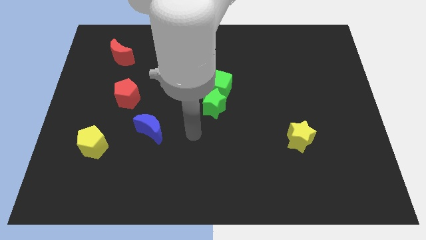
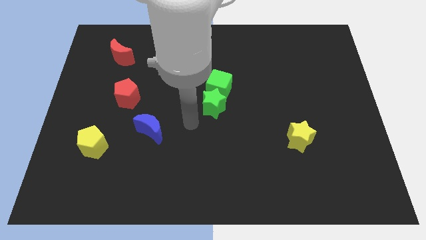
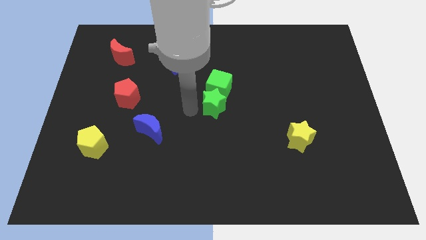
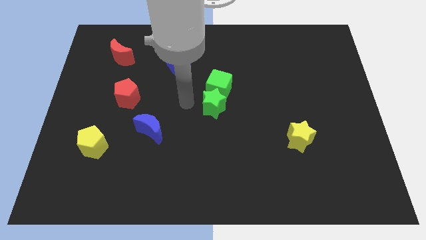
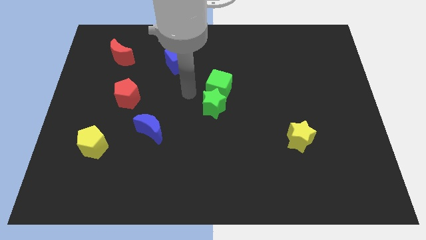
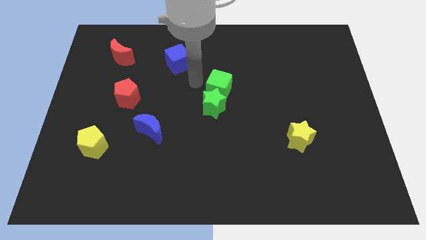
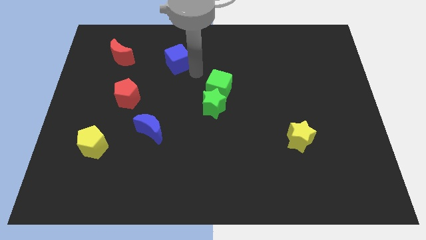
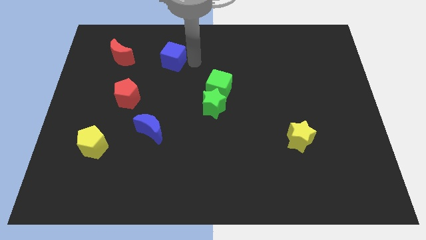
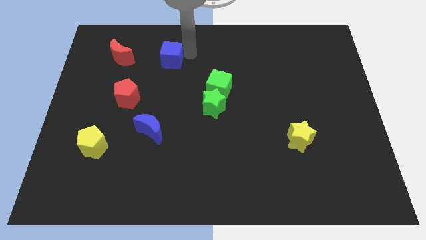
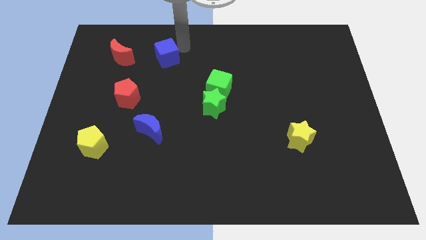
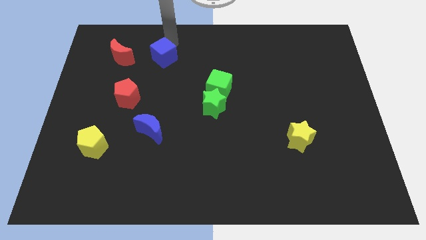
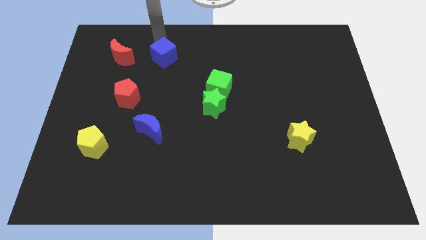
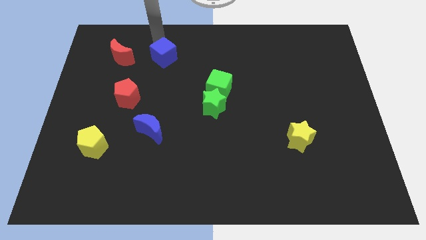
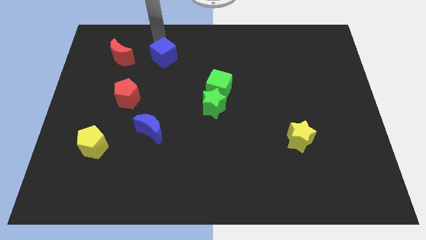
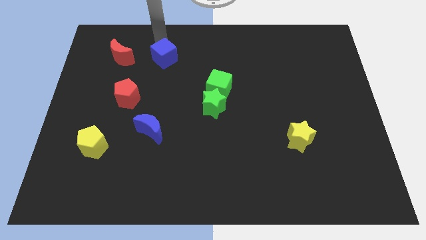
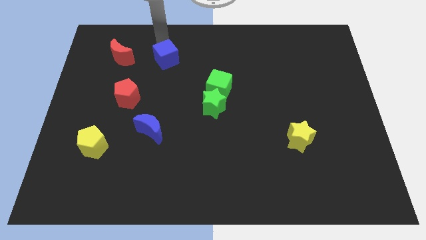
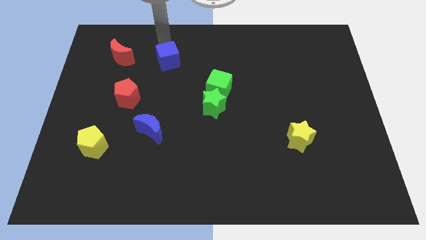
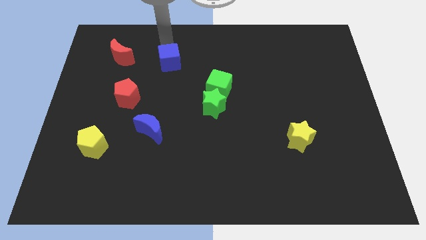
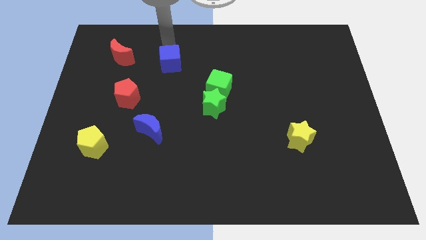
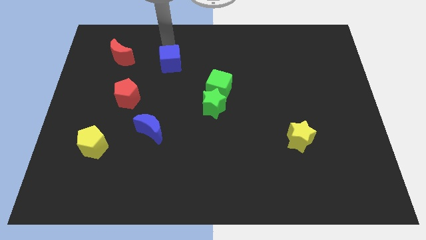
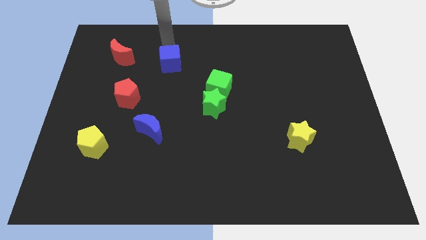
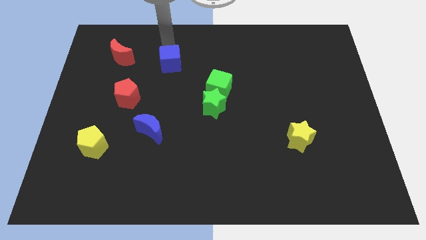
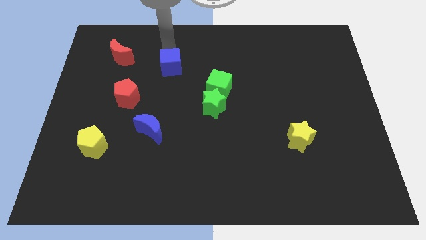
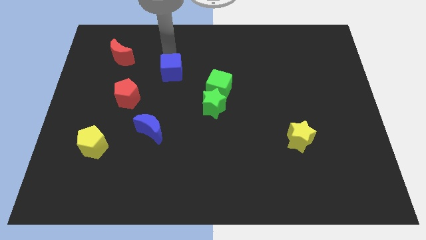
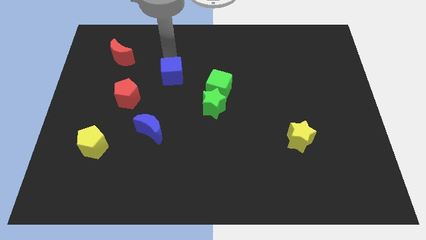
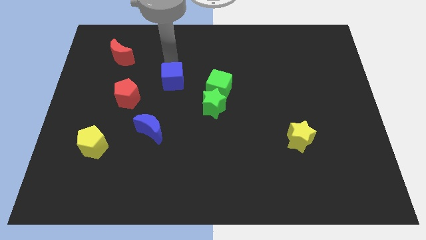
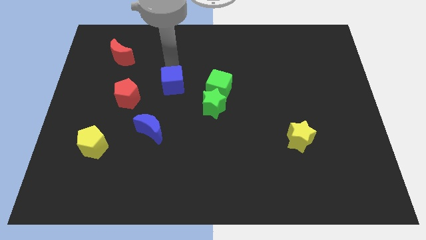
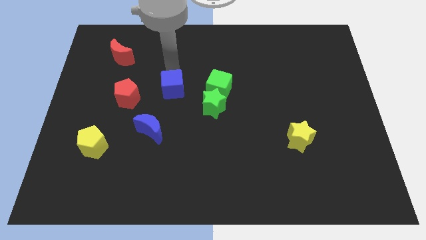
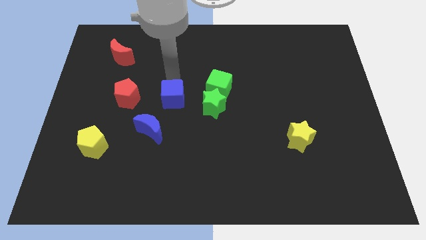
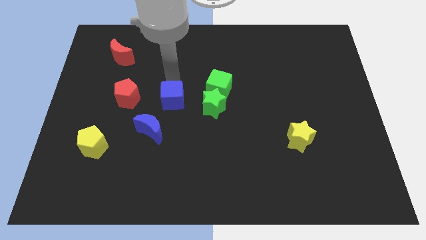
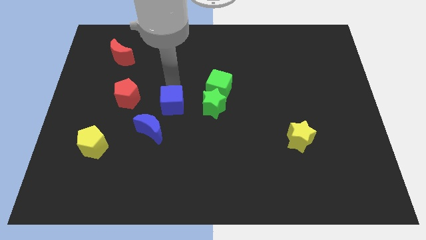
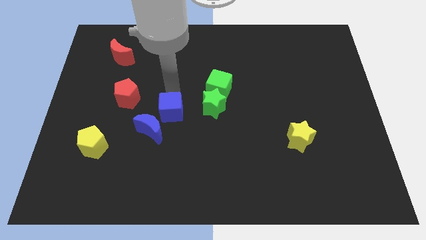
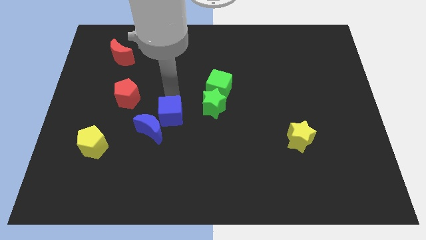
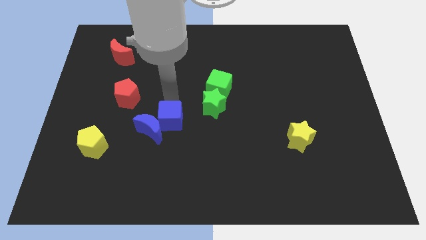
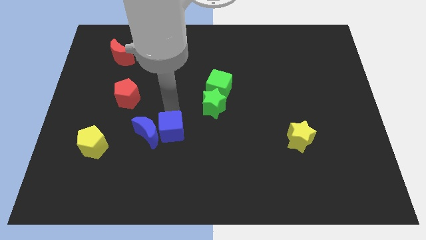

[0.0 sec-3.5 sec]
slide the blue cube down

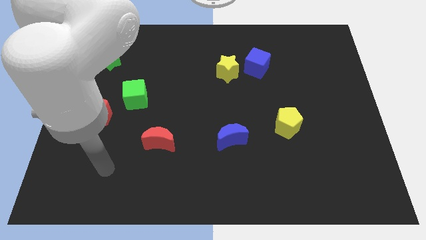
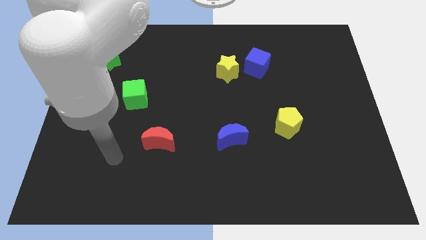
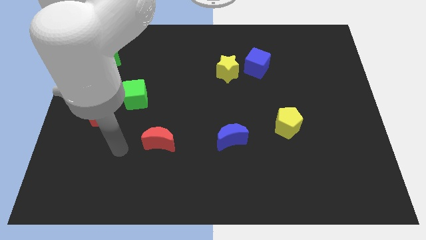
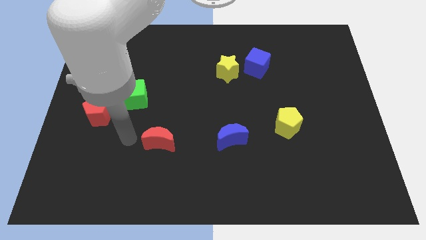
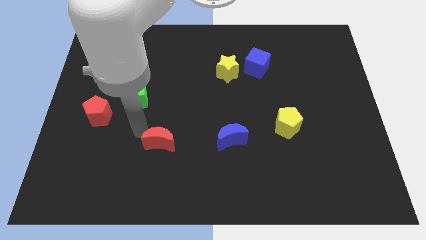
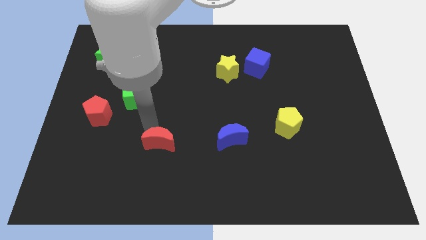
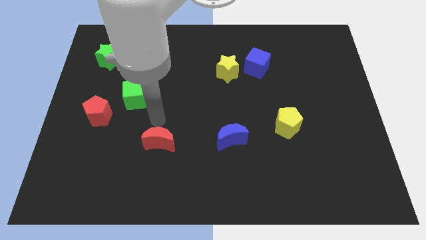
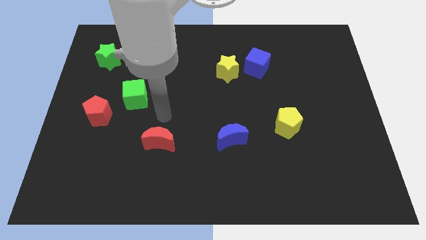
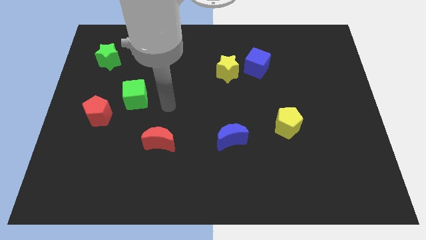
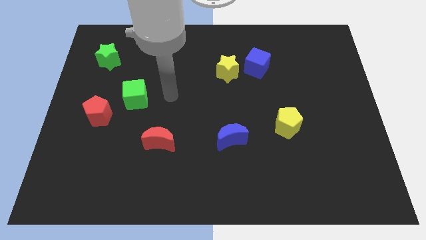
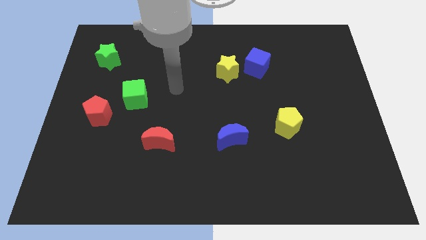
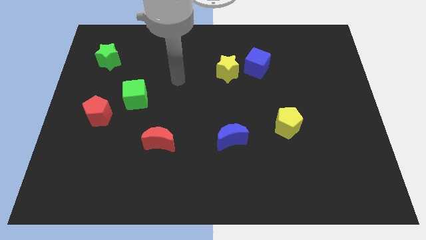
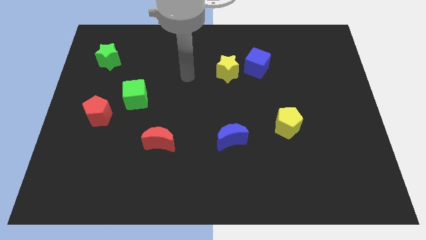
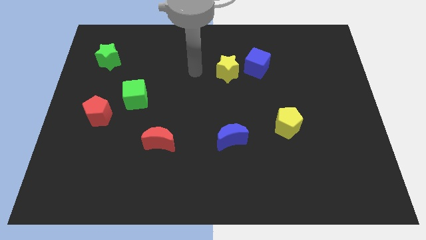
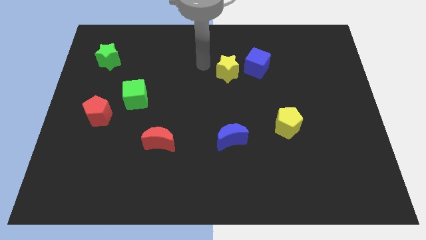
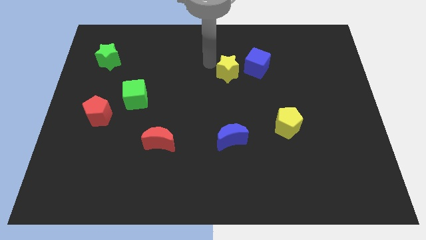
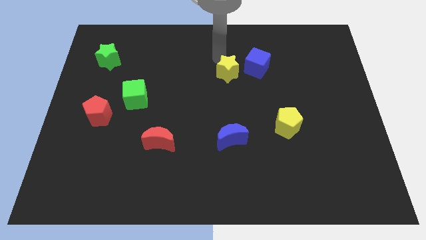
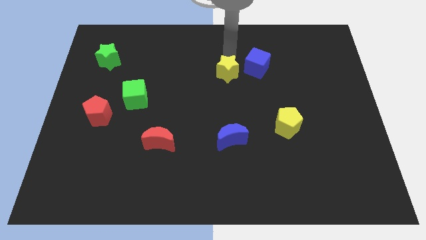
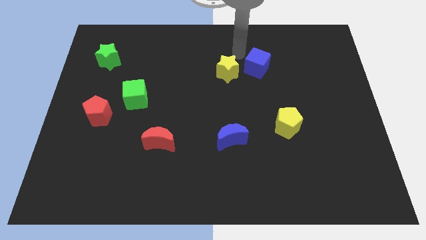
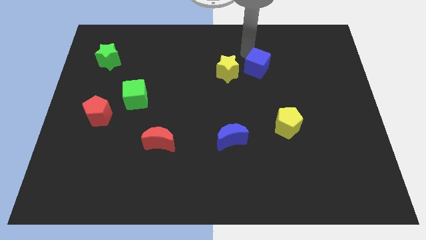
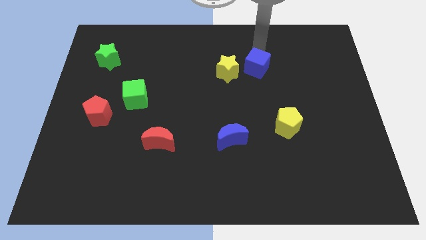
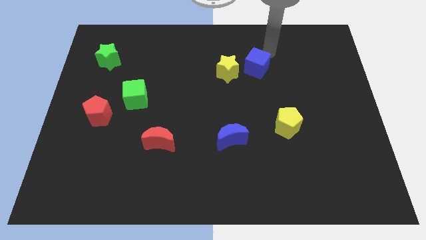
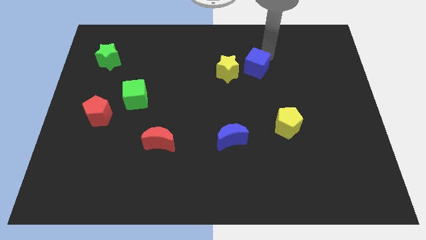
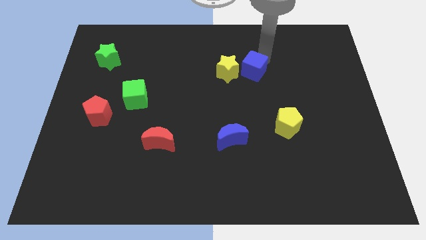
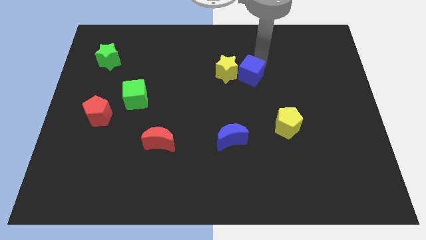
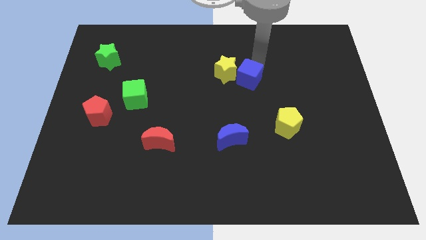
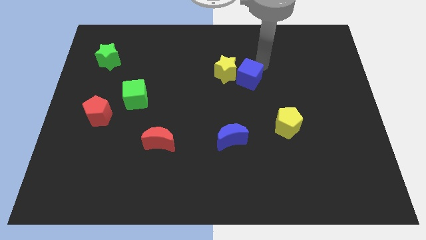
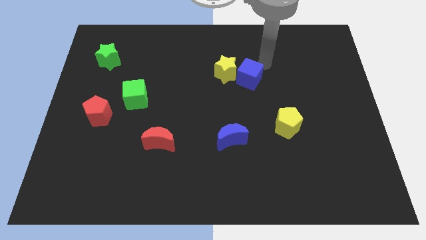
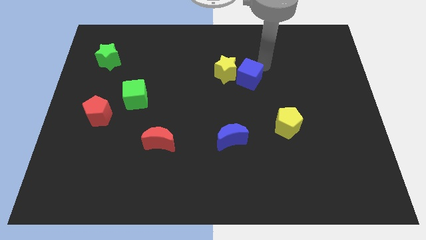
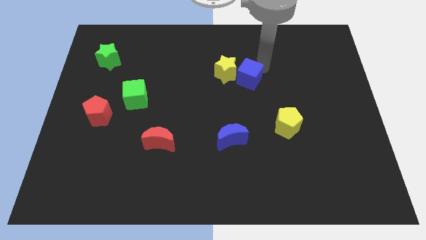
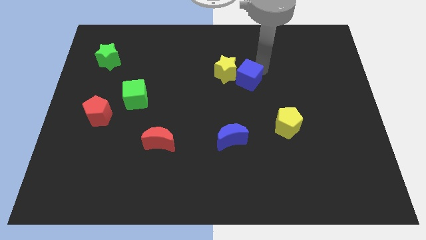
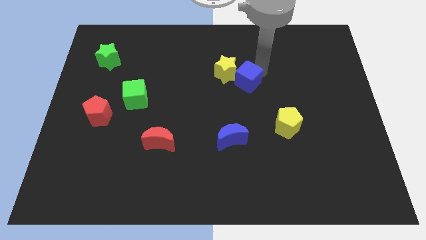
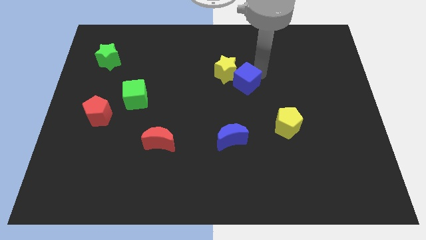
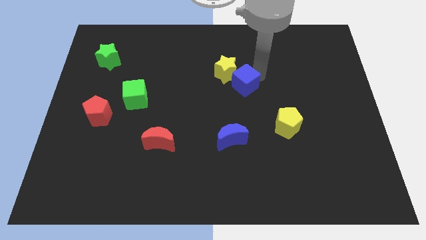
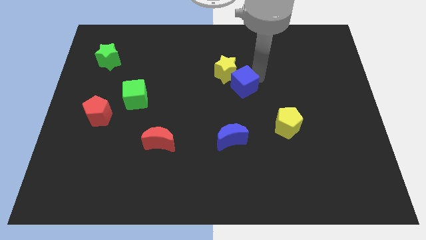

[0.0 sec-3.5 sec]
slide the blue cube down and then to the left slightly

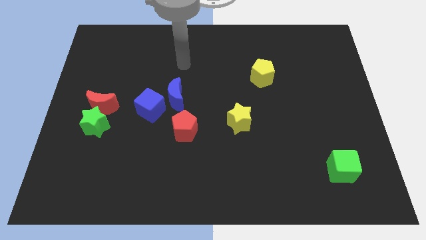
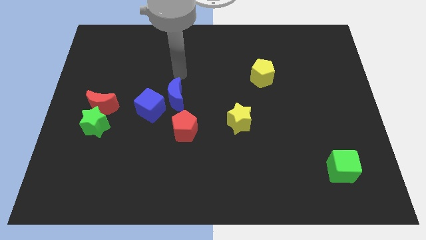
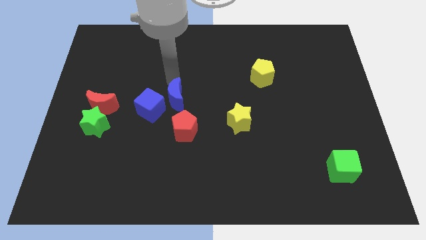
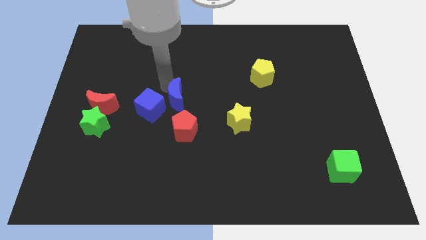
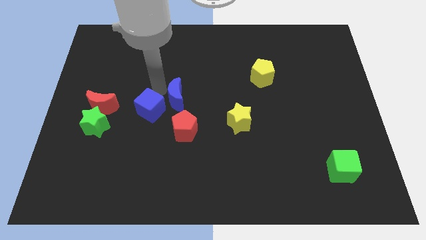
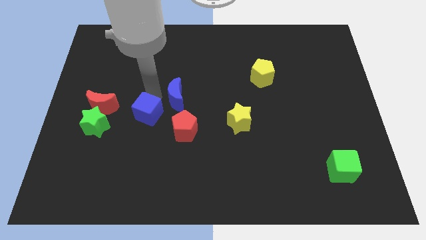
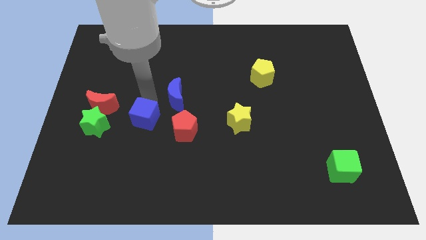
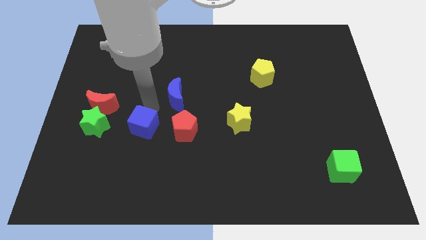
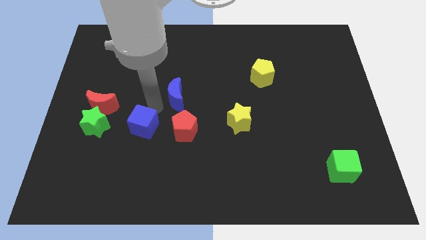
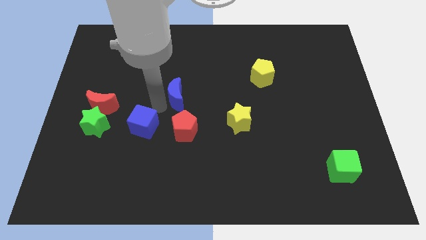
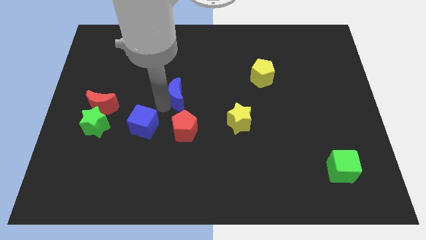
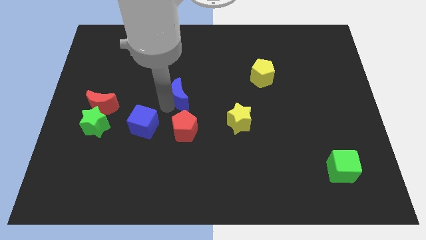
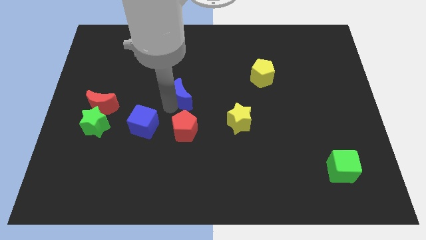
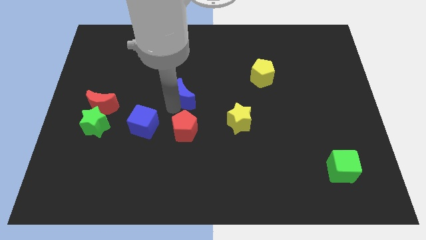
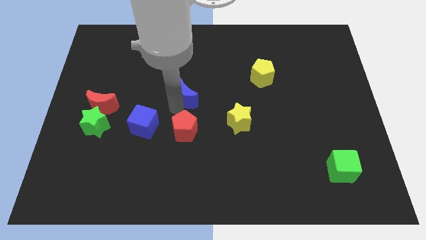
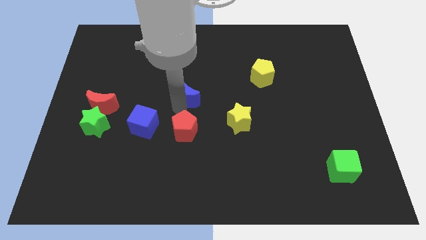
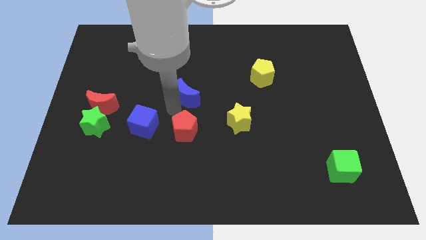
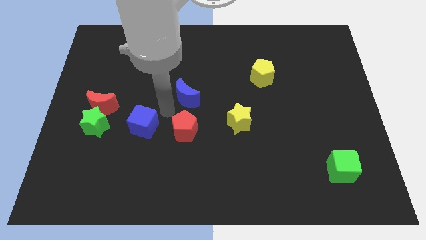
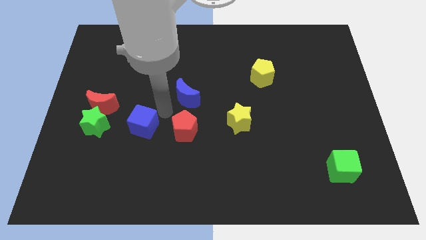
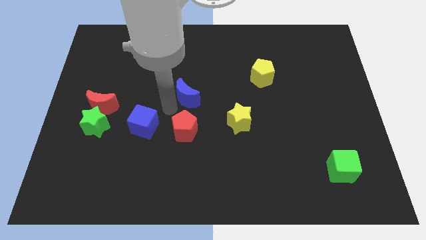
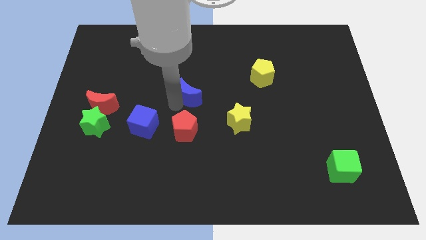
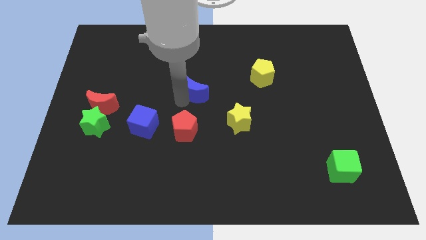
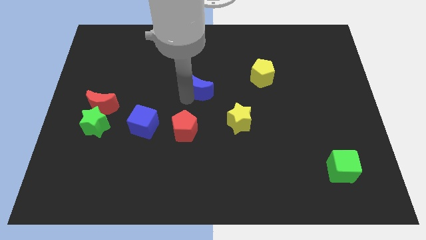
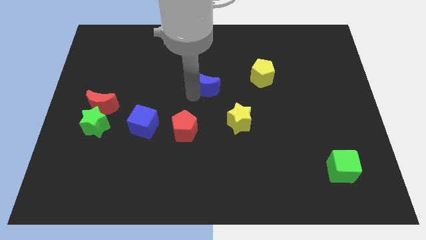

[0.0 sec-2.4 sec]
slide the blue moon a little bit up and to the right
